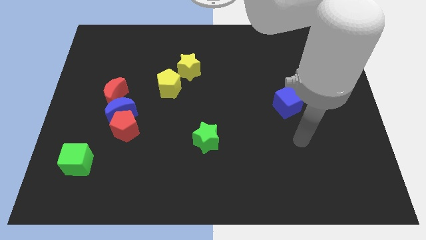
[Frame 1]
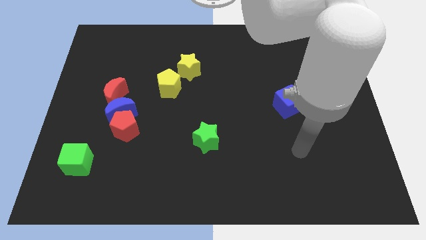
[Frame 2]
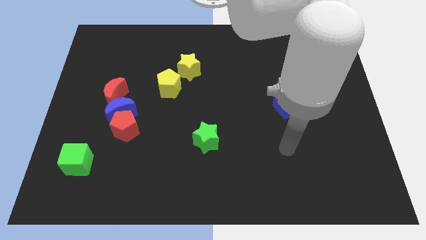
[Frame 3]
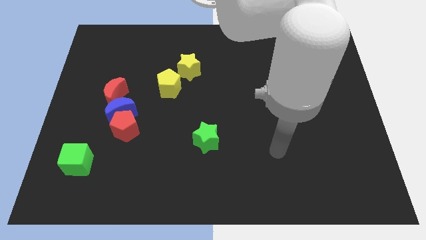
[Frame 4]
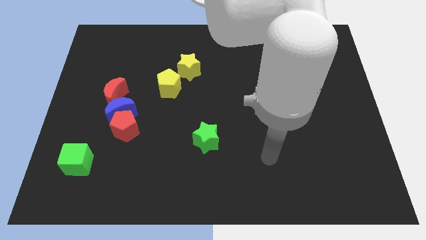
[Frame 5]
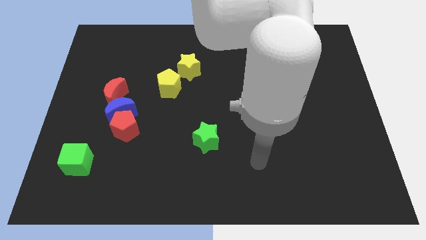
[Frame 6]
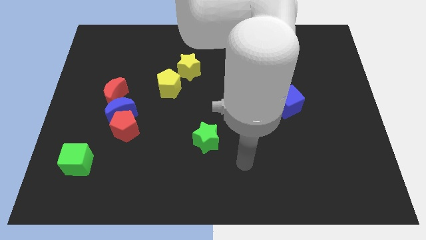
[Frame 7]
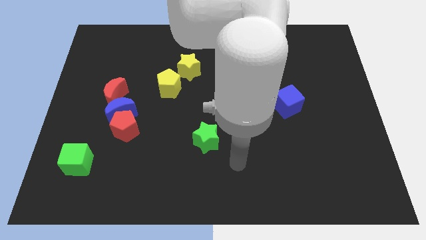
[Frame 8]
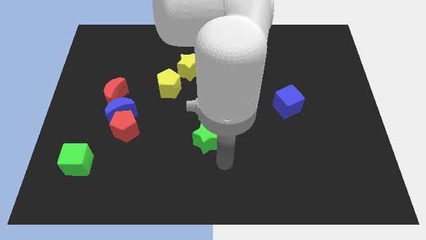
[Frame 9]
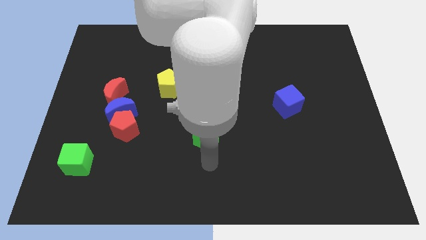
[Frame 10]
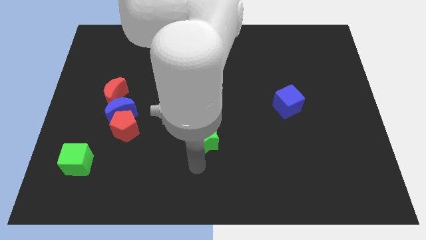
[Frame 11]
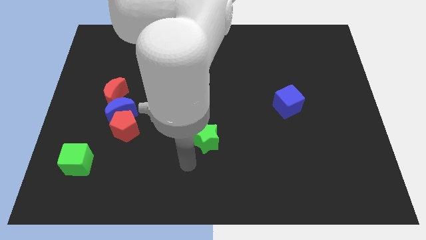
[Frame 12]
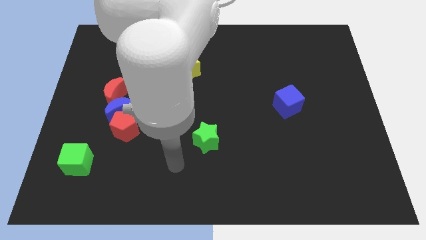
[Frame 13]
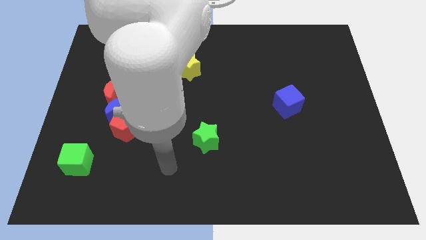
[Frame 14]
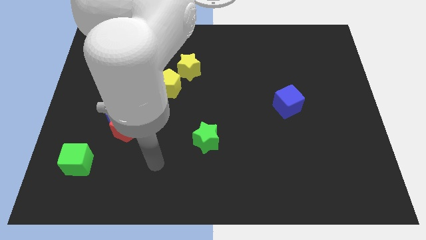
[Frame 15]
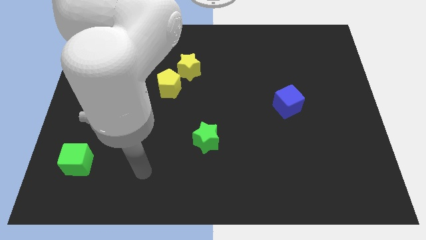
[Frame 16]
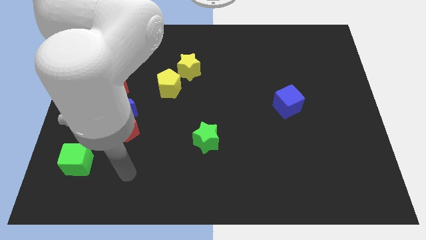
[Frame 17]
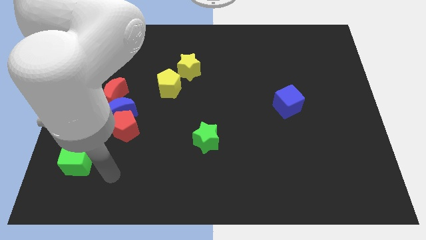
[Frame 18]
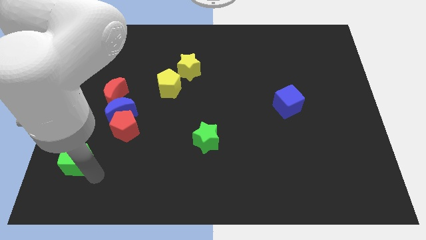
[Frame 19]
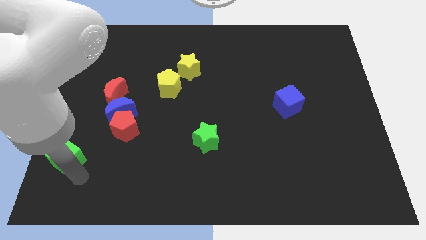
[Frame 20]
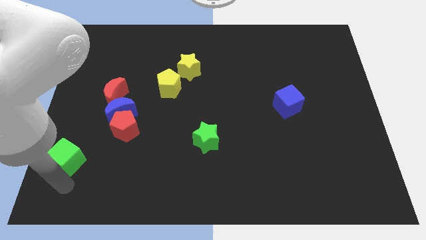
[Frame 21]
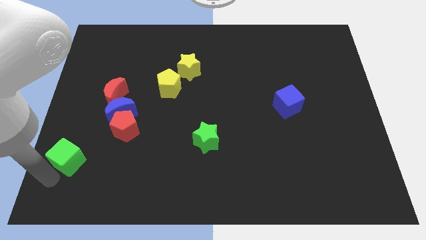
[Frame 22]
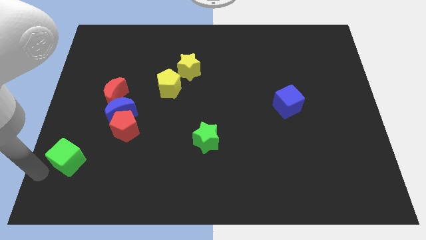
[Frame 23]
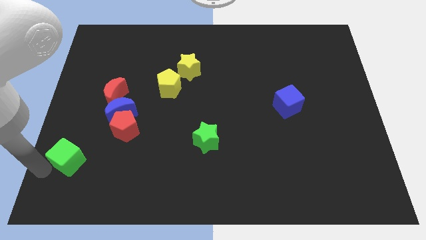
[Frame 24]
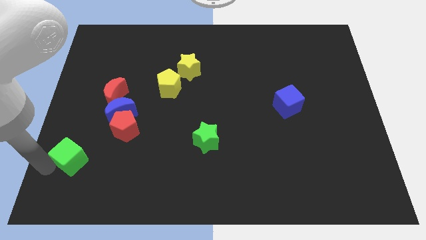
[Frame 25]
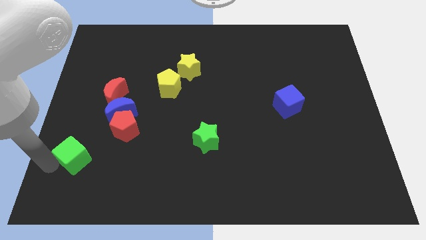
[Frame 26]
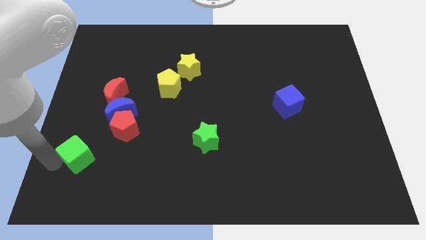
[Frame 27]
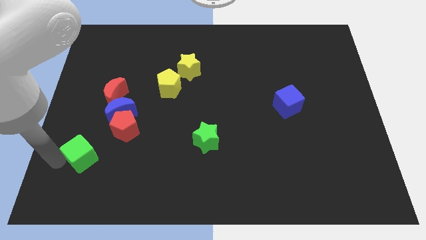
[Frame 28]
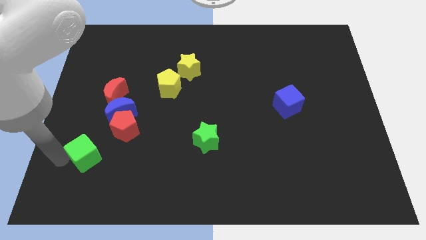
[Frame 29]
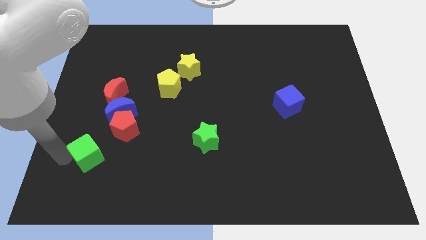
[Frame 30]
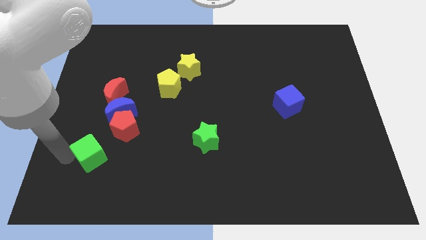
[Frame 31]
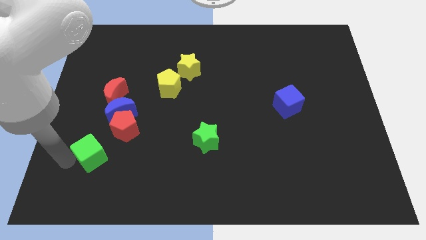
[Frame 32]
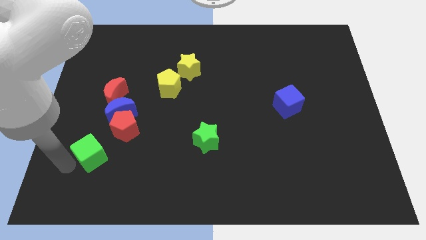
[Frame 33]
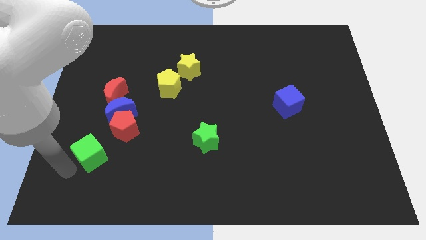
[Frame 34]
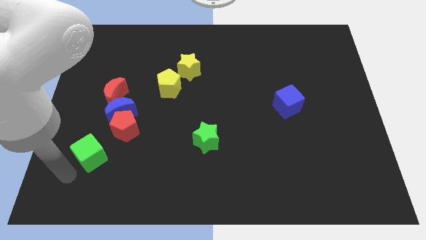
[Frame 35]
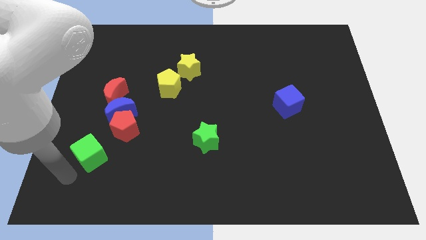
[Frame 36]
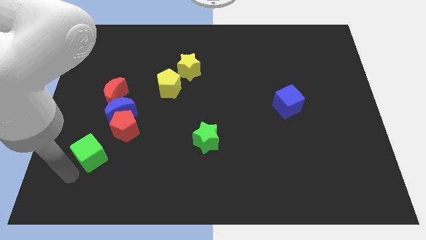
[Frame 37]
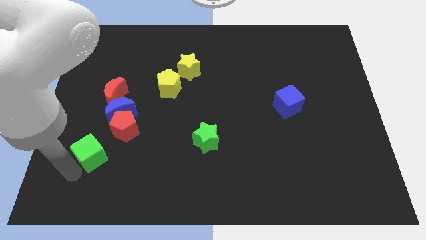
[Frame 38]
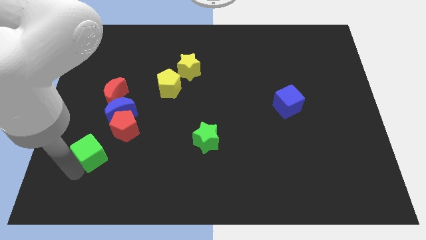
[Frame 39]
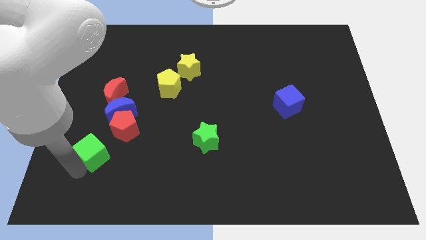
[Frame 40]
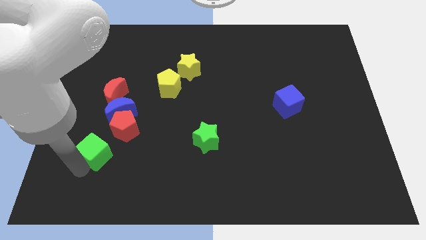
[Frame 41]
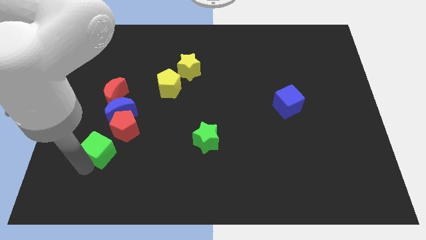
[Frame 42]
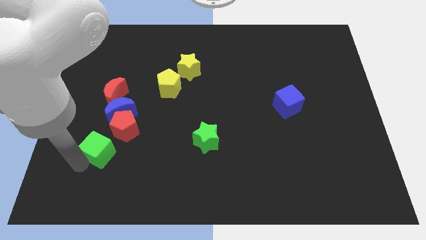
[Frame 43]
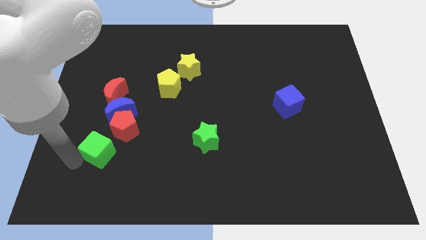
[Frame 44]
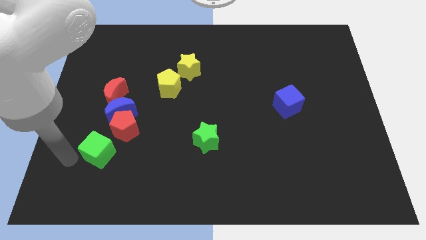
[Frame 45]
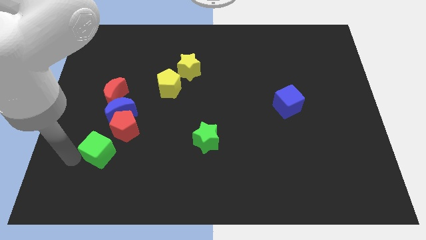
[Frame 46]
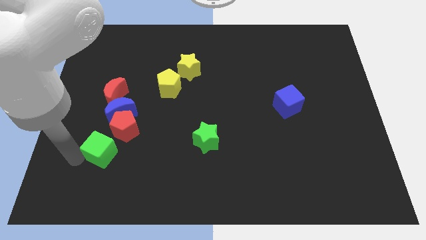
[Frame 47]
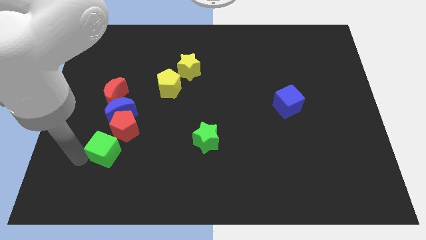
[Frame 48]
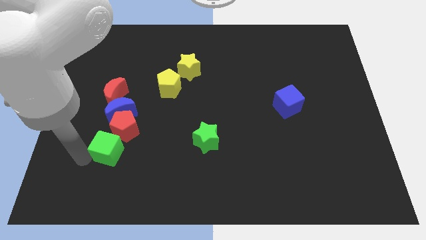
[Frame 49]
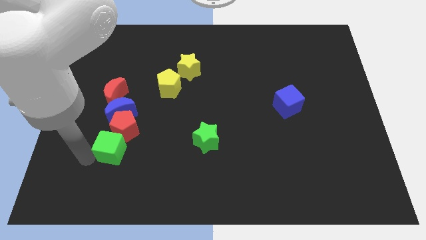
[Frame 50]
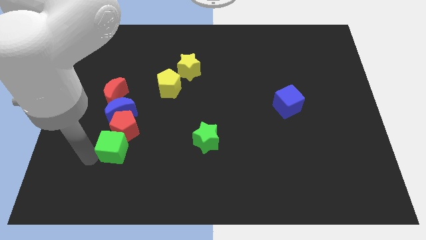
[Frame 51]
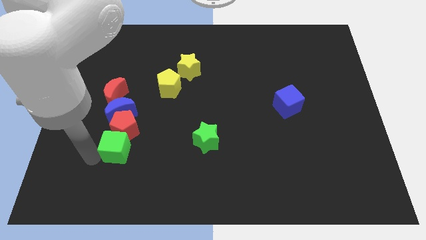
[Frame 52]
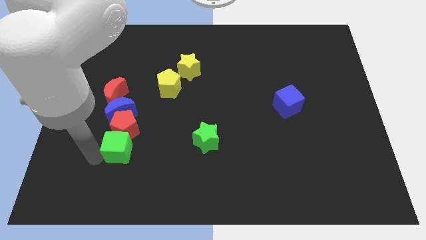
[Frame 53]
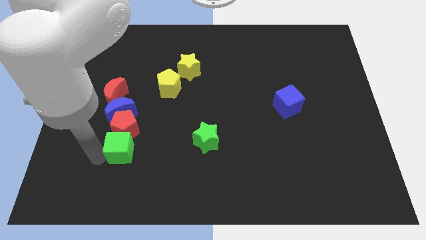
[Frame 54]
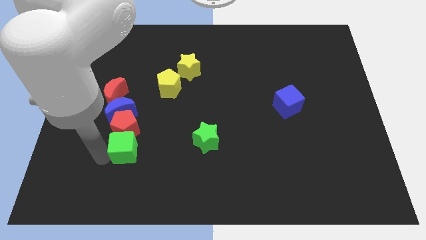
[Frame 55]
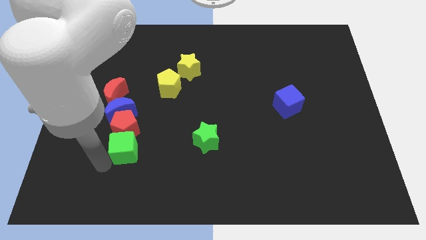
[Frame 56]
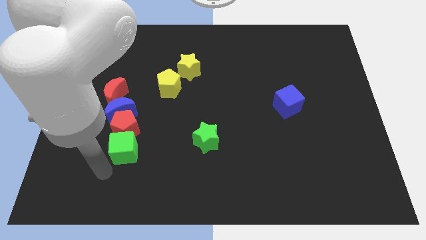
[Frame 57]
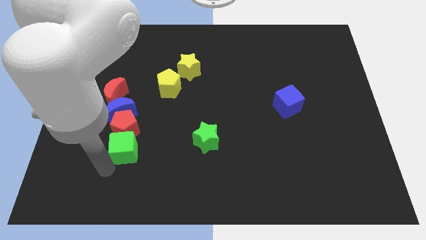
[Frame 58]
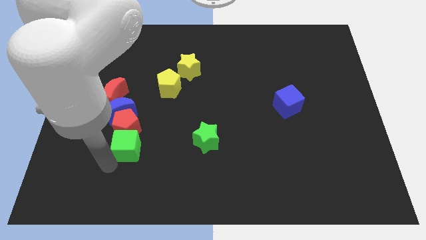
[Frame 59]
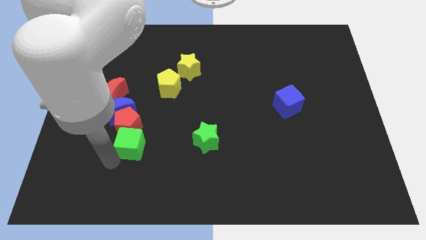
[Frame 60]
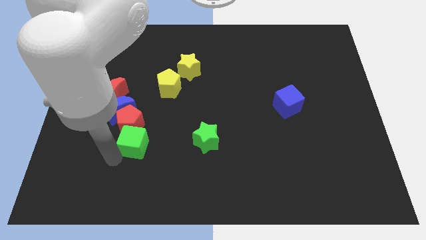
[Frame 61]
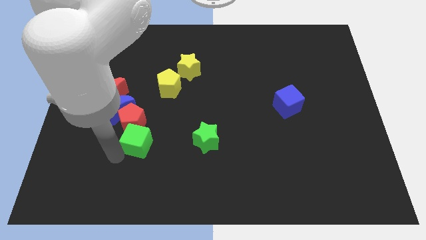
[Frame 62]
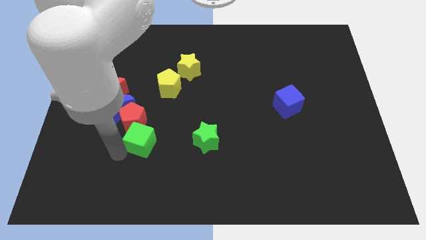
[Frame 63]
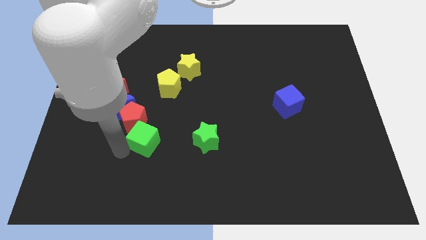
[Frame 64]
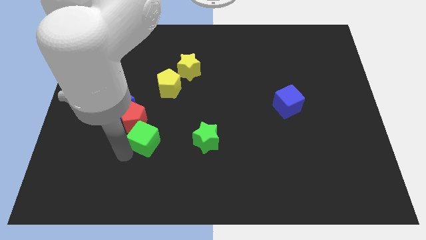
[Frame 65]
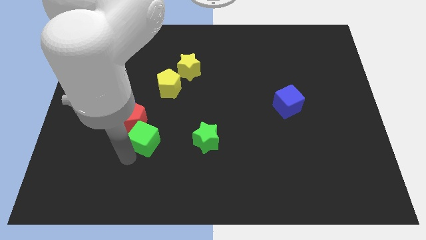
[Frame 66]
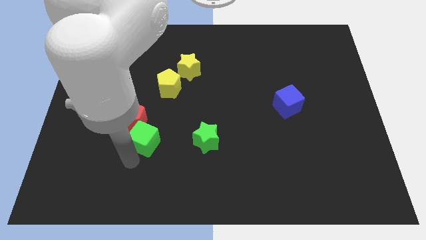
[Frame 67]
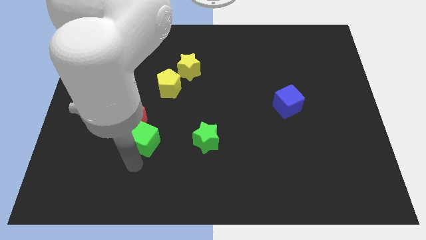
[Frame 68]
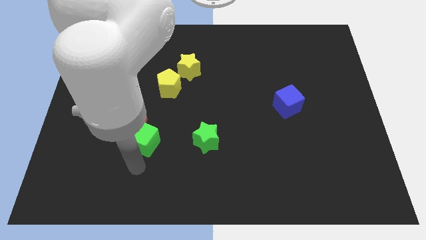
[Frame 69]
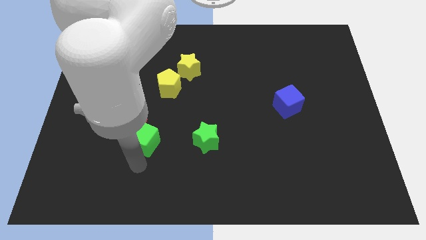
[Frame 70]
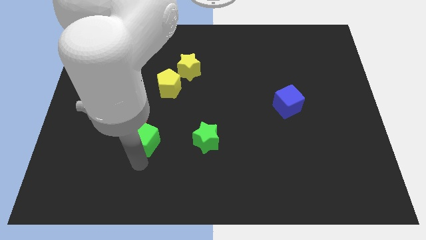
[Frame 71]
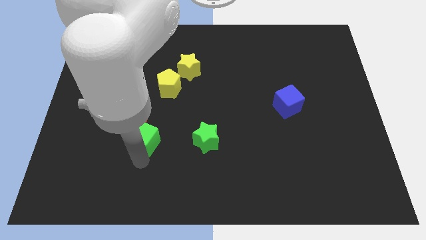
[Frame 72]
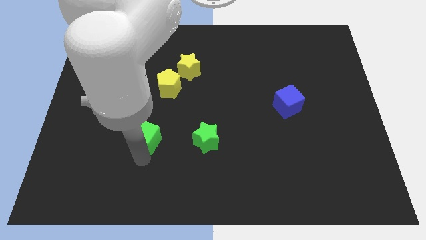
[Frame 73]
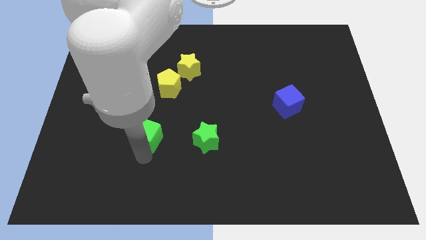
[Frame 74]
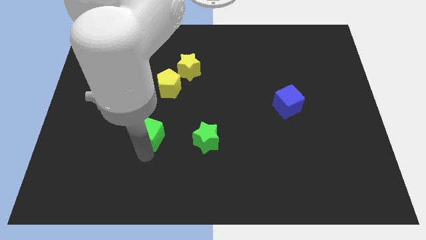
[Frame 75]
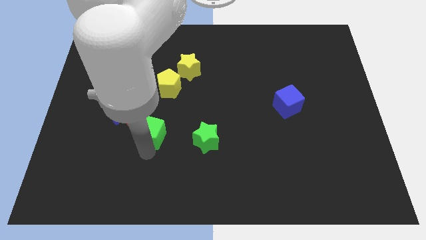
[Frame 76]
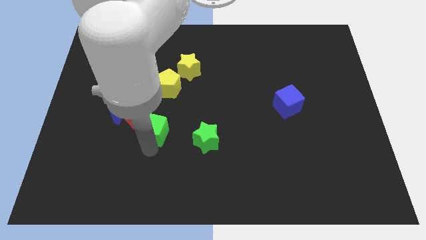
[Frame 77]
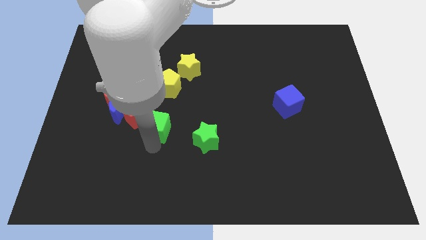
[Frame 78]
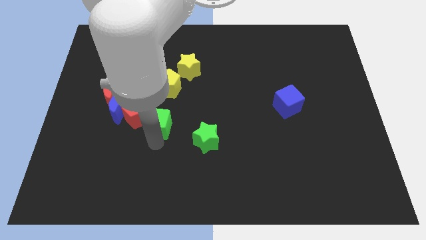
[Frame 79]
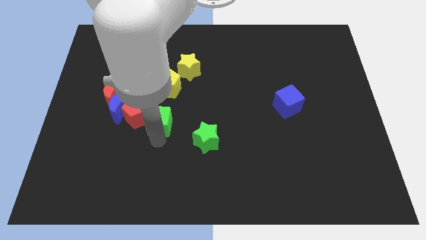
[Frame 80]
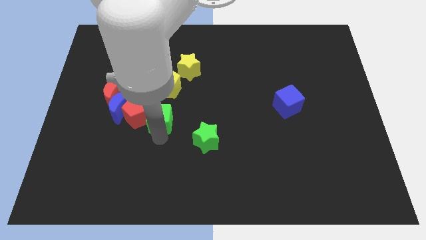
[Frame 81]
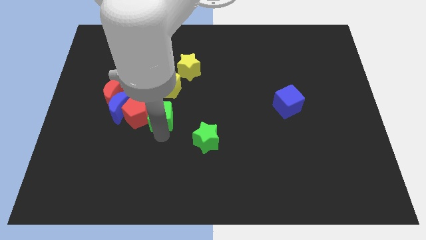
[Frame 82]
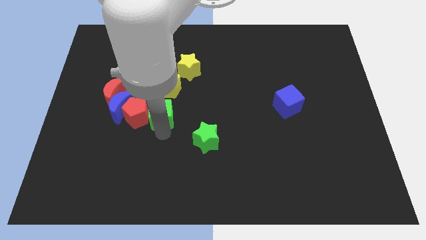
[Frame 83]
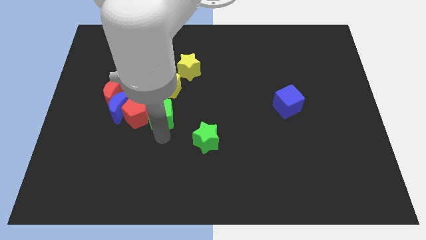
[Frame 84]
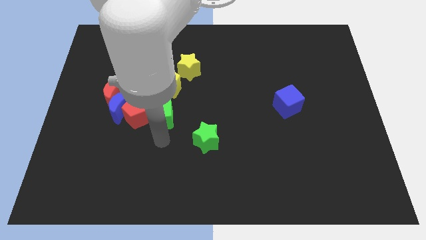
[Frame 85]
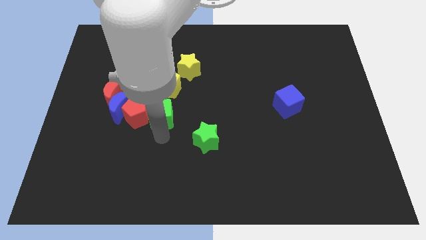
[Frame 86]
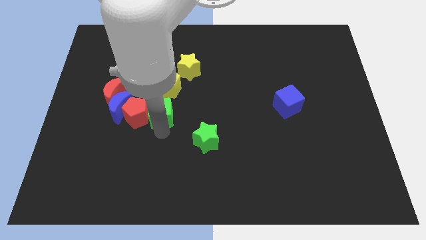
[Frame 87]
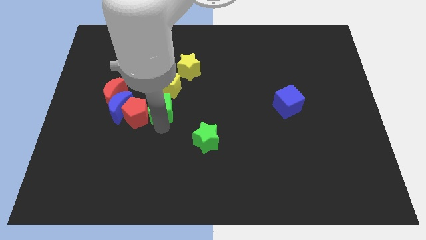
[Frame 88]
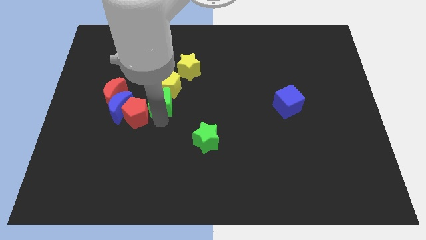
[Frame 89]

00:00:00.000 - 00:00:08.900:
move the green cube next to the yellow pentagon
